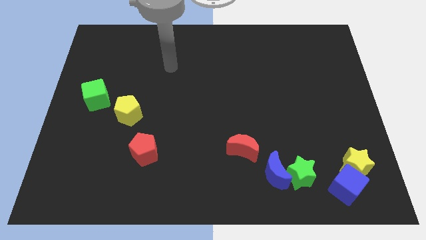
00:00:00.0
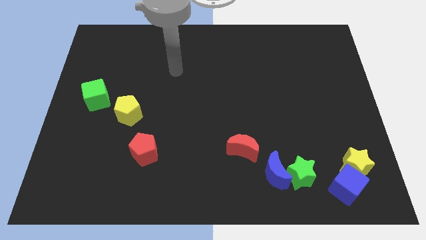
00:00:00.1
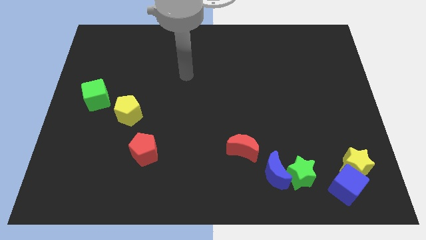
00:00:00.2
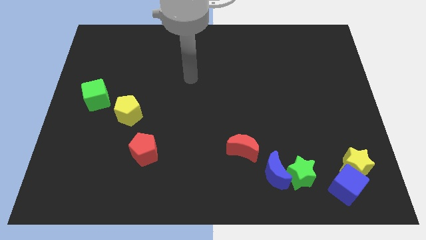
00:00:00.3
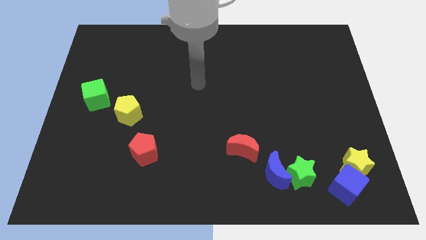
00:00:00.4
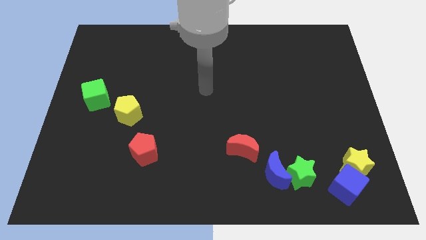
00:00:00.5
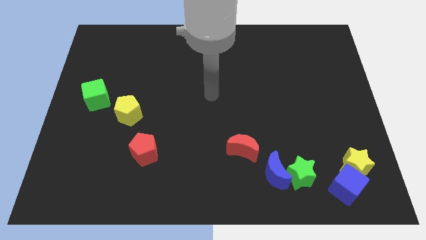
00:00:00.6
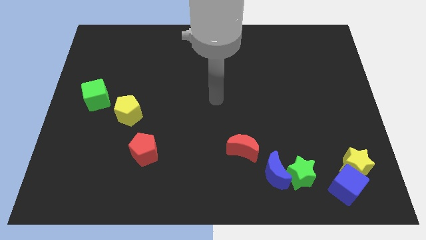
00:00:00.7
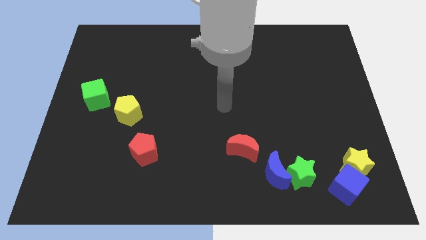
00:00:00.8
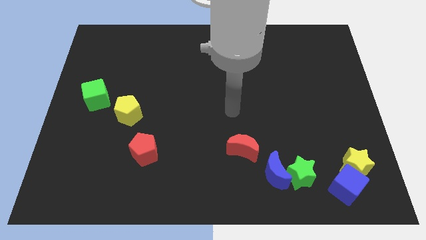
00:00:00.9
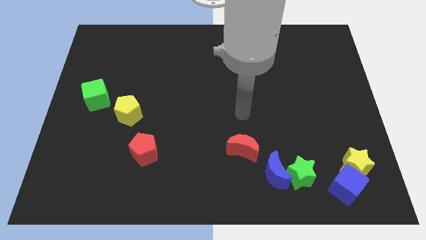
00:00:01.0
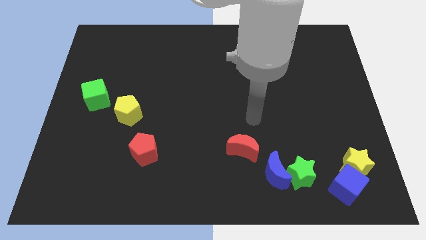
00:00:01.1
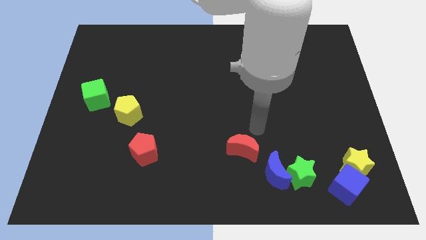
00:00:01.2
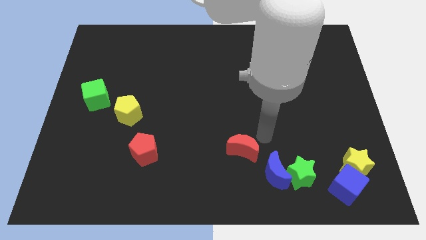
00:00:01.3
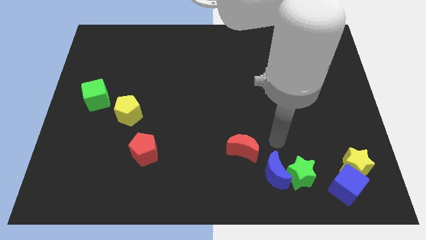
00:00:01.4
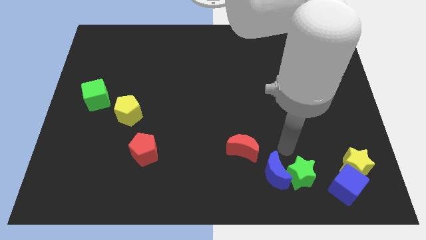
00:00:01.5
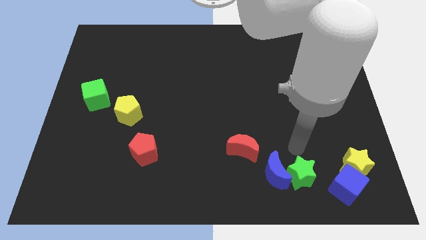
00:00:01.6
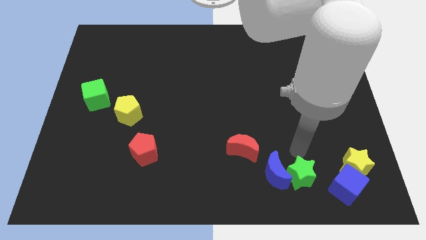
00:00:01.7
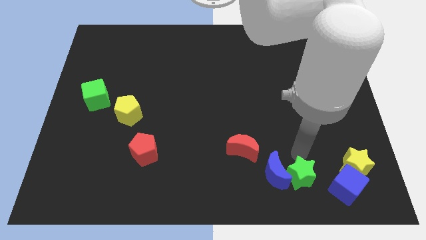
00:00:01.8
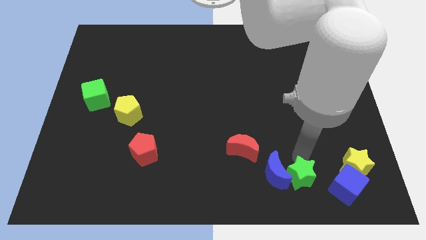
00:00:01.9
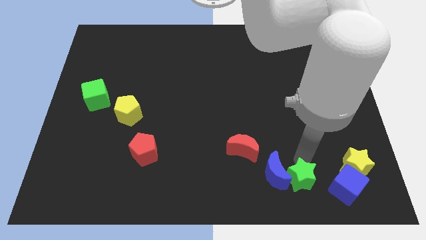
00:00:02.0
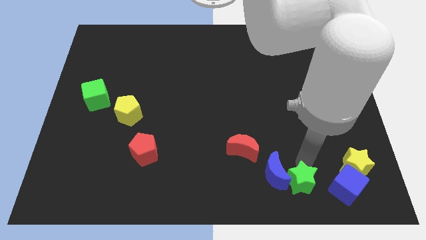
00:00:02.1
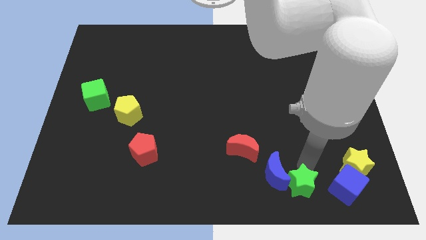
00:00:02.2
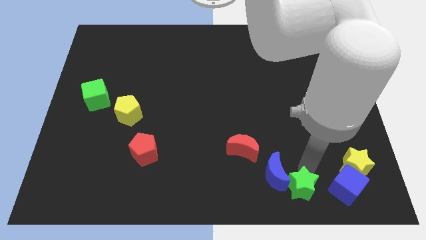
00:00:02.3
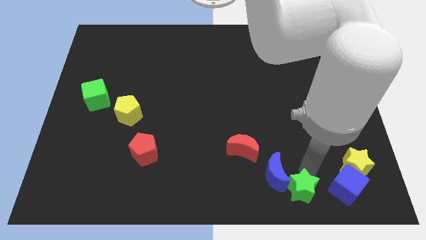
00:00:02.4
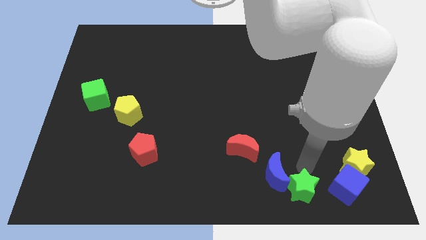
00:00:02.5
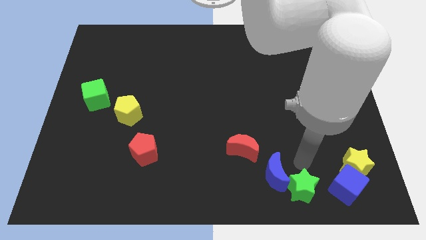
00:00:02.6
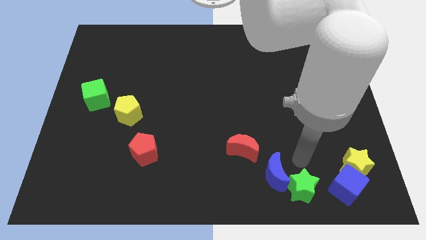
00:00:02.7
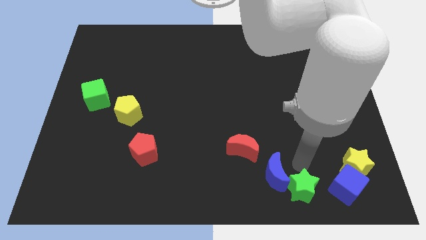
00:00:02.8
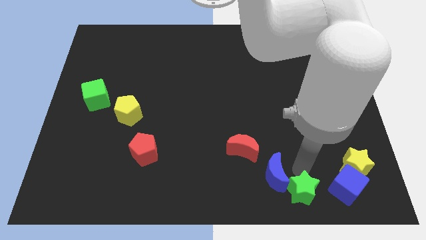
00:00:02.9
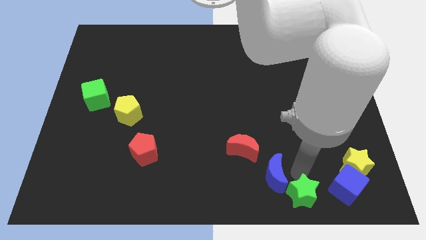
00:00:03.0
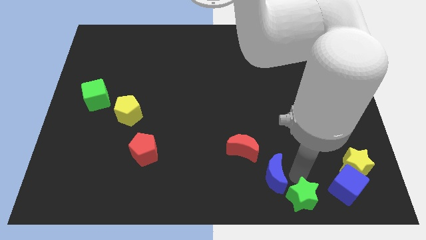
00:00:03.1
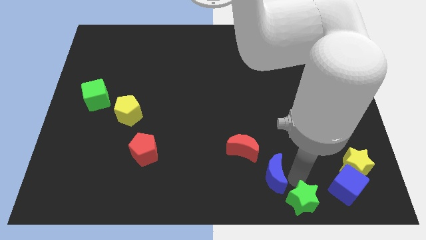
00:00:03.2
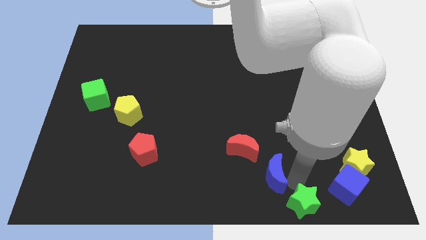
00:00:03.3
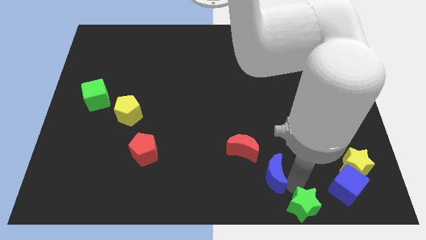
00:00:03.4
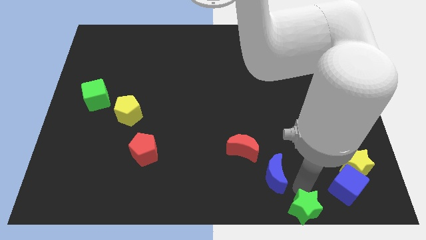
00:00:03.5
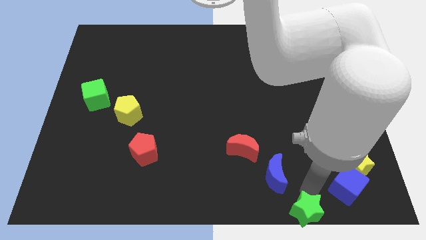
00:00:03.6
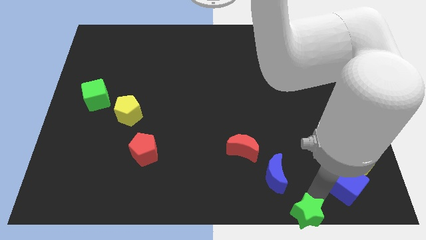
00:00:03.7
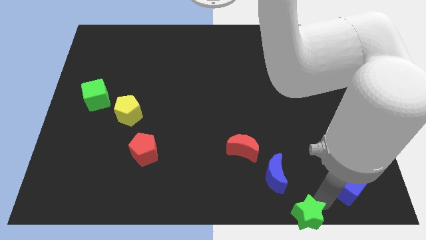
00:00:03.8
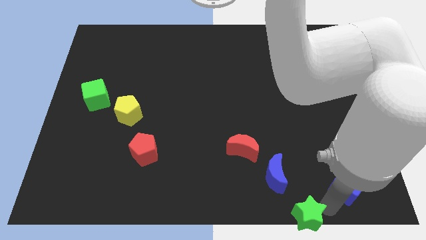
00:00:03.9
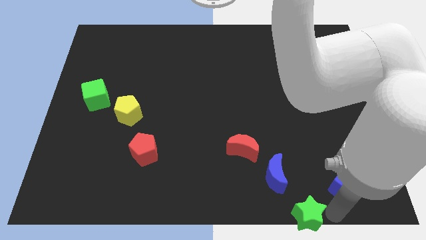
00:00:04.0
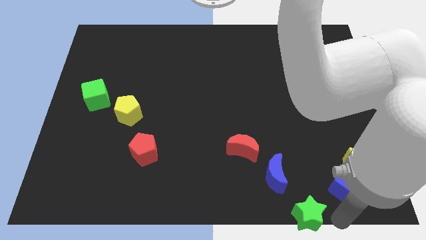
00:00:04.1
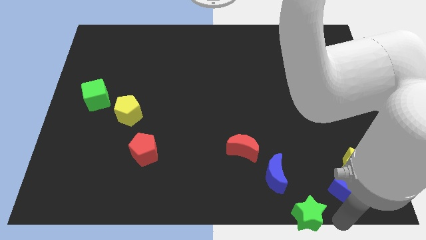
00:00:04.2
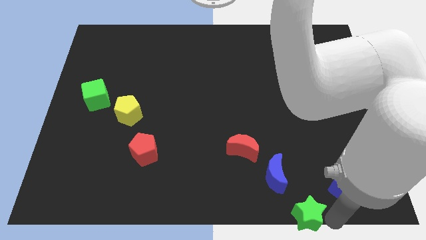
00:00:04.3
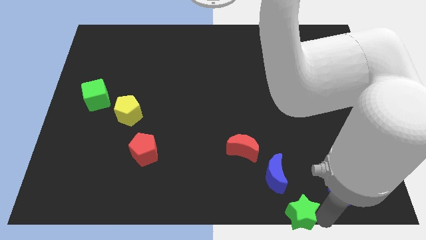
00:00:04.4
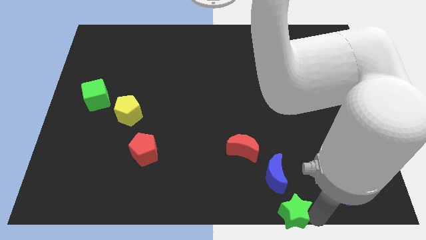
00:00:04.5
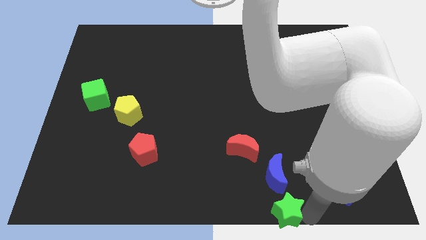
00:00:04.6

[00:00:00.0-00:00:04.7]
move the green star to the bottom

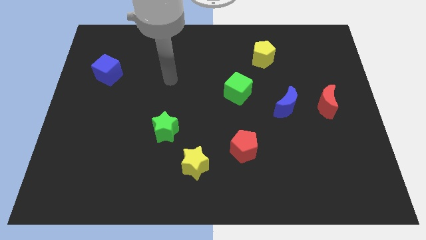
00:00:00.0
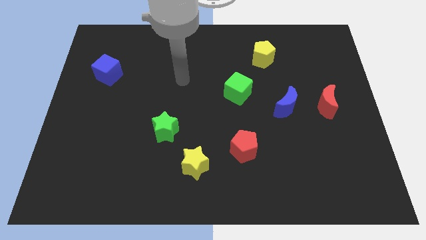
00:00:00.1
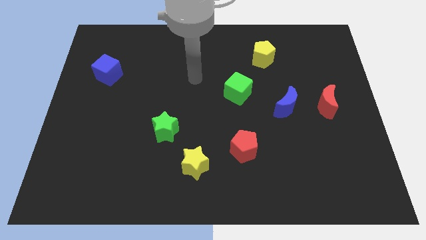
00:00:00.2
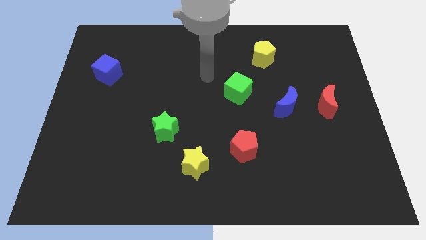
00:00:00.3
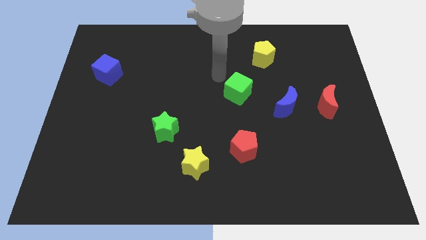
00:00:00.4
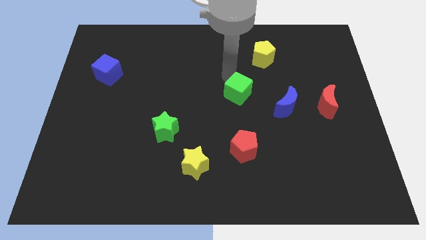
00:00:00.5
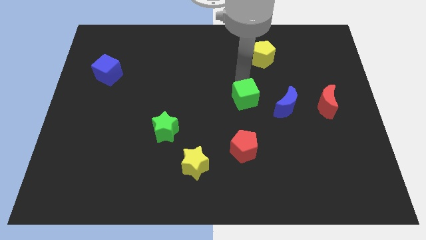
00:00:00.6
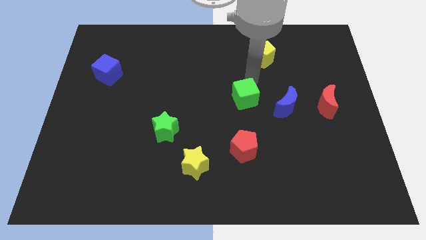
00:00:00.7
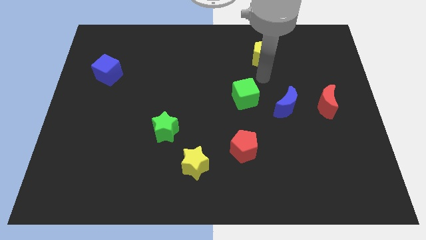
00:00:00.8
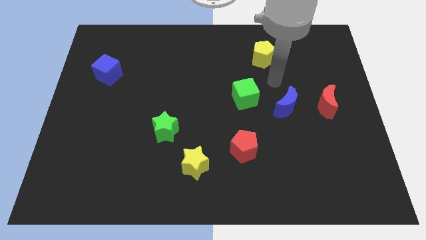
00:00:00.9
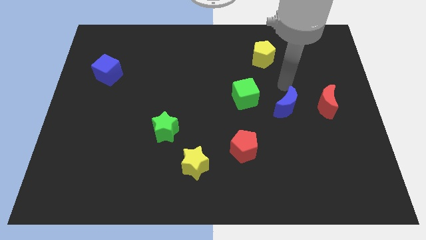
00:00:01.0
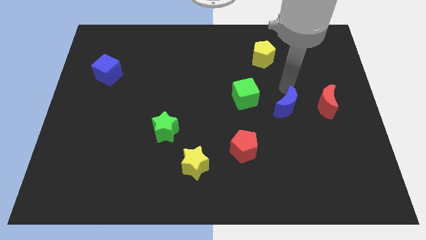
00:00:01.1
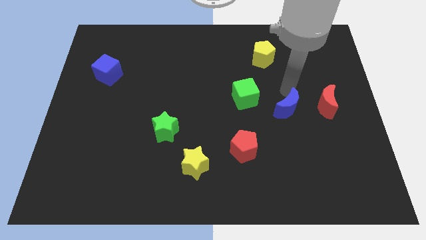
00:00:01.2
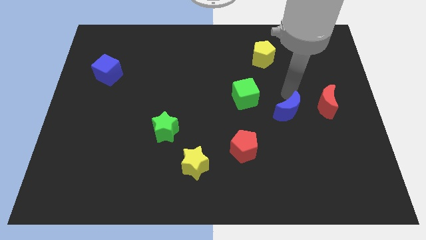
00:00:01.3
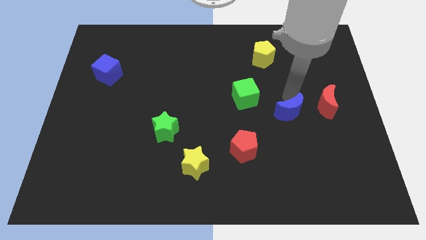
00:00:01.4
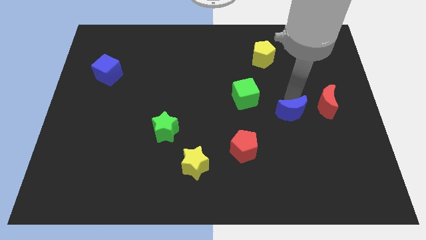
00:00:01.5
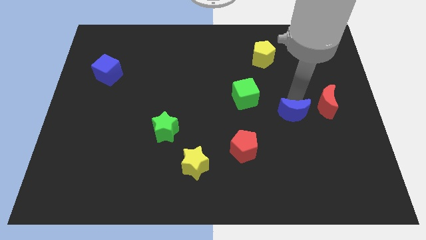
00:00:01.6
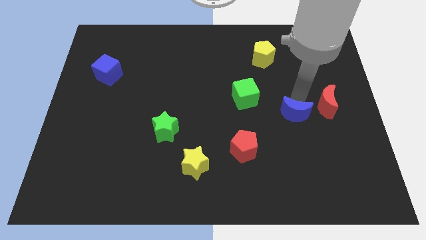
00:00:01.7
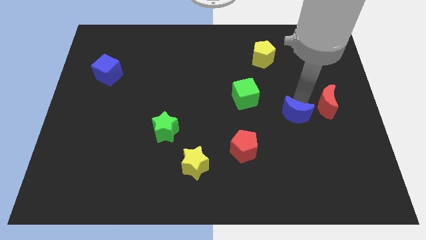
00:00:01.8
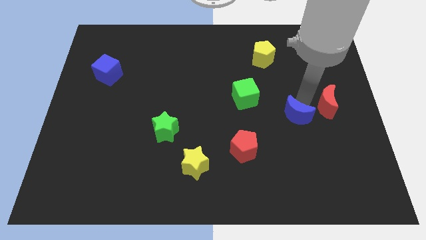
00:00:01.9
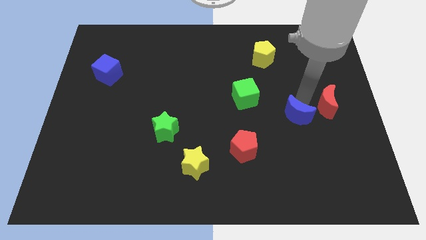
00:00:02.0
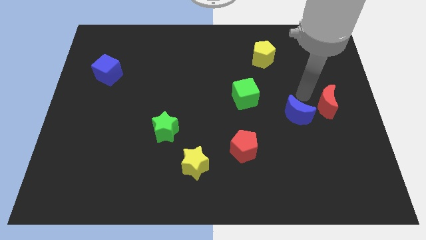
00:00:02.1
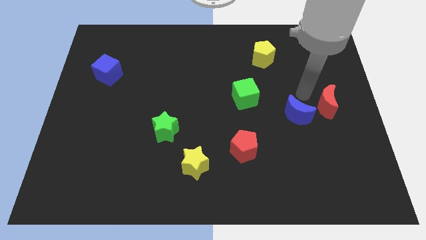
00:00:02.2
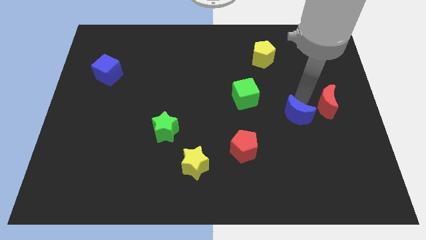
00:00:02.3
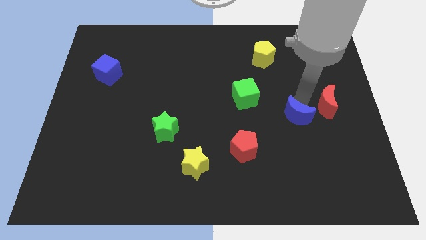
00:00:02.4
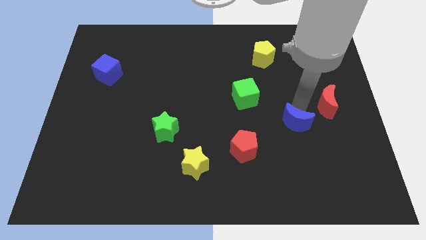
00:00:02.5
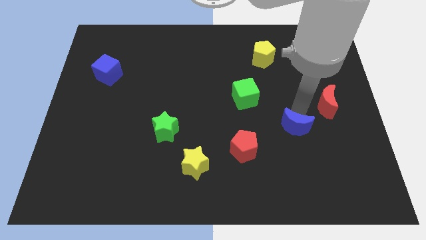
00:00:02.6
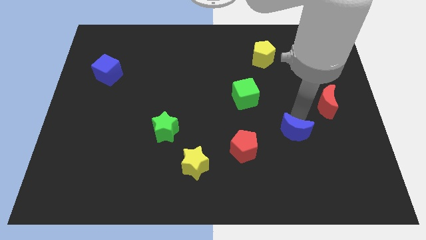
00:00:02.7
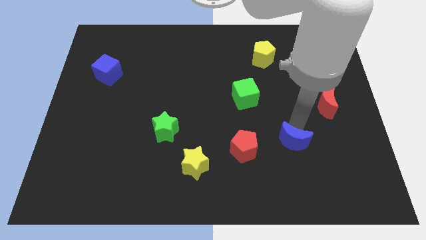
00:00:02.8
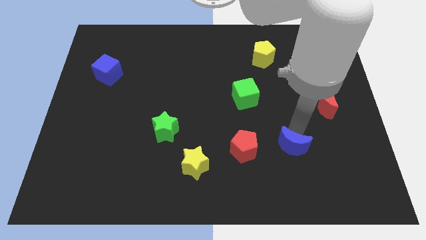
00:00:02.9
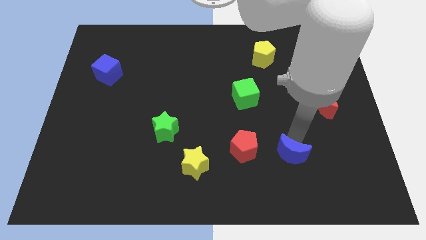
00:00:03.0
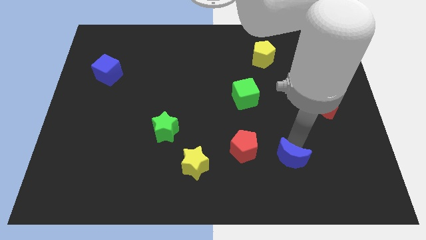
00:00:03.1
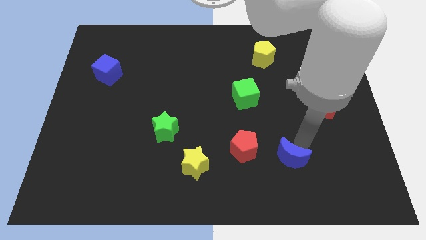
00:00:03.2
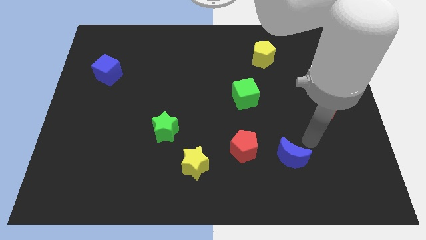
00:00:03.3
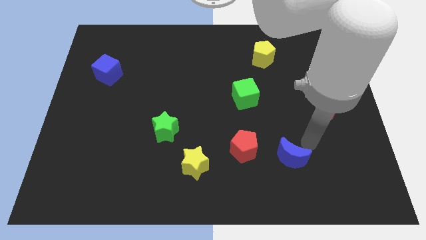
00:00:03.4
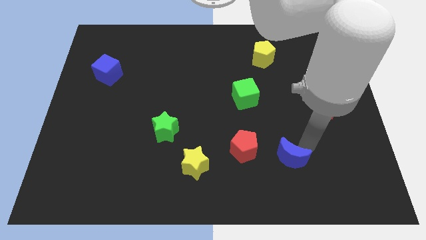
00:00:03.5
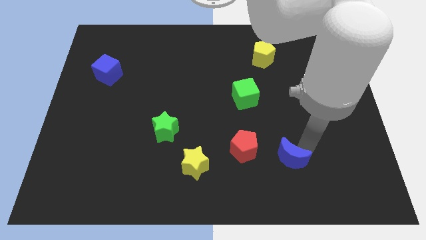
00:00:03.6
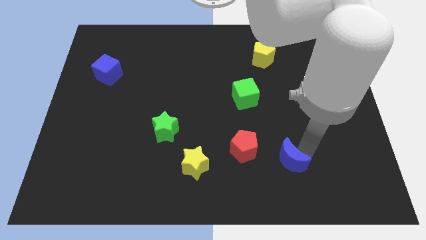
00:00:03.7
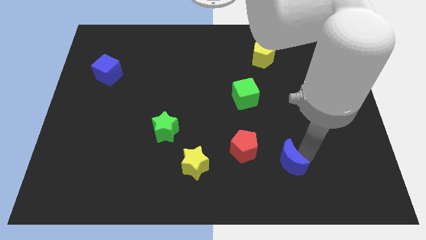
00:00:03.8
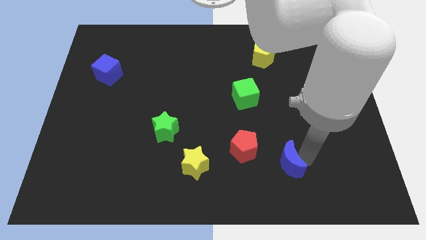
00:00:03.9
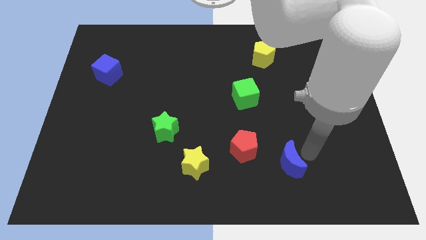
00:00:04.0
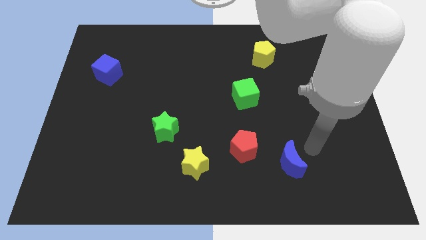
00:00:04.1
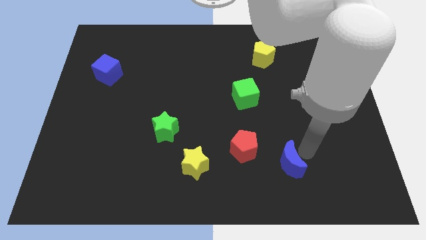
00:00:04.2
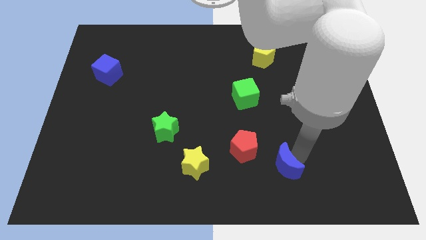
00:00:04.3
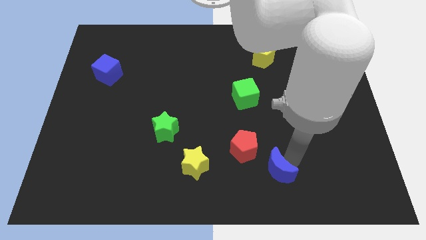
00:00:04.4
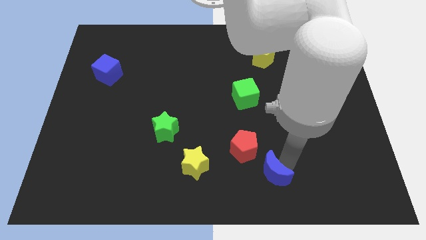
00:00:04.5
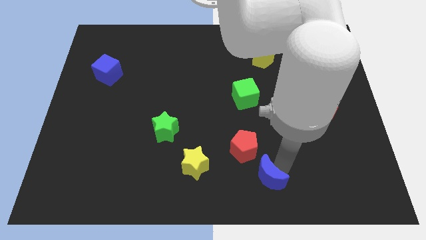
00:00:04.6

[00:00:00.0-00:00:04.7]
push the blue moon to the bottom side
